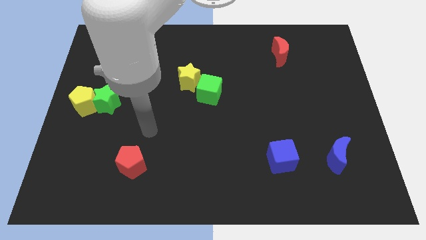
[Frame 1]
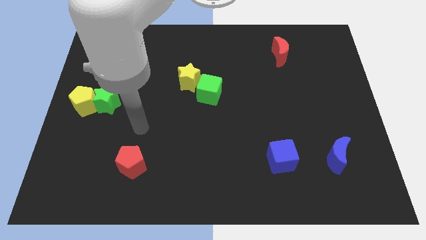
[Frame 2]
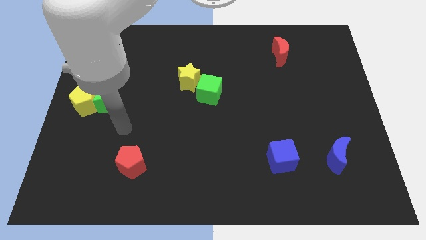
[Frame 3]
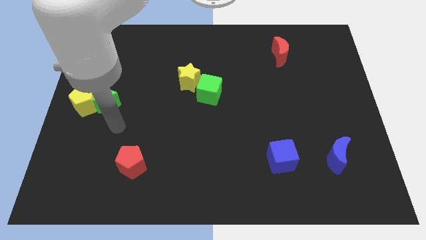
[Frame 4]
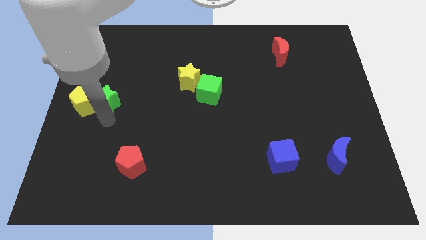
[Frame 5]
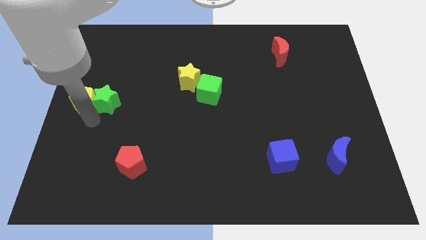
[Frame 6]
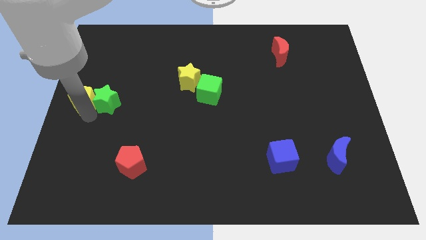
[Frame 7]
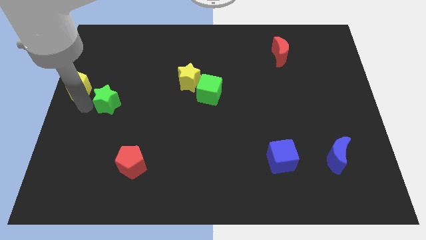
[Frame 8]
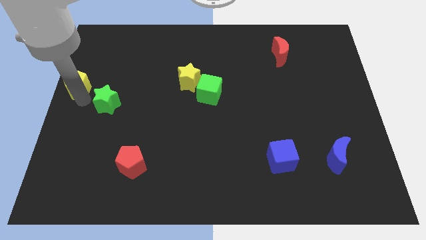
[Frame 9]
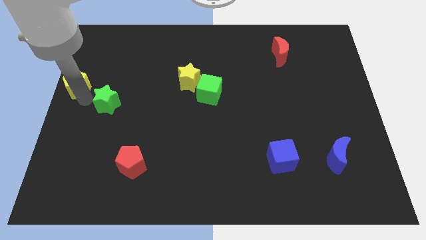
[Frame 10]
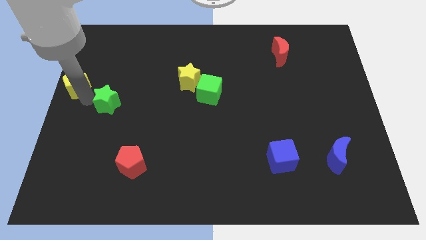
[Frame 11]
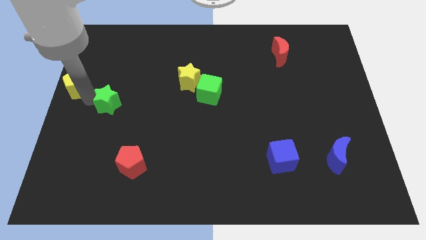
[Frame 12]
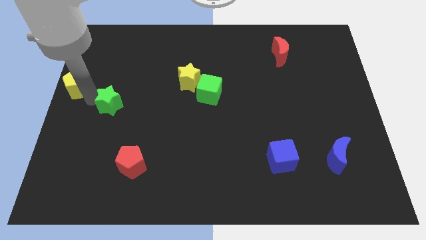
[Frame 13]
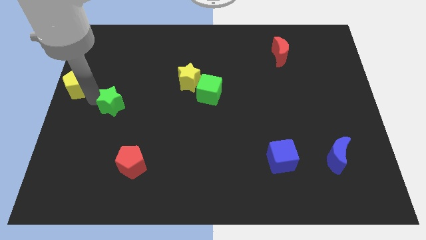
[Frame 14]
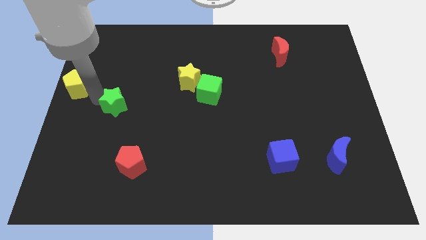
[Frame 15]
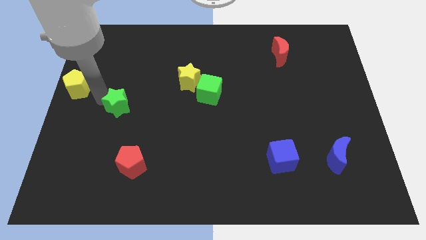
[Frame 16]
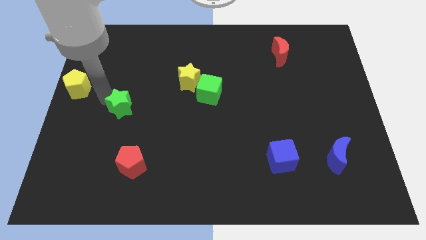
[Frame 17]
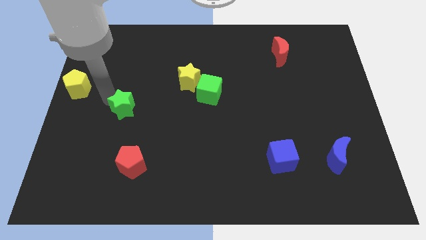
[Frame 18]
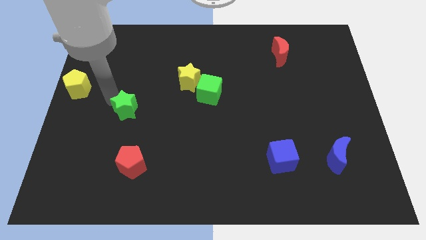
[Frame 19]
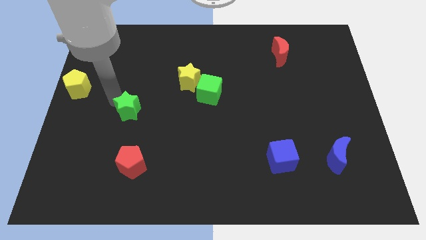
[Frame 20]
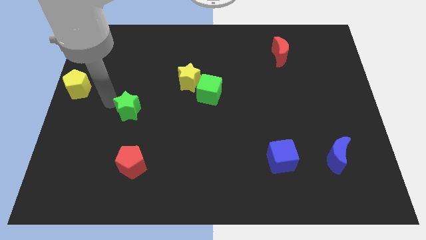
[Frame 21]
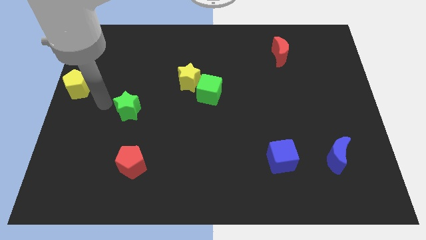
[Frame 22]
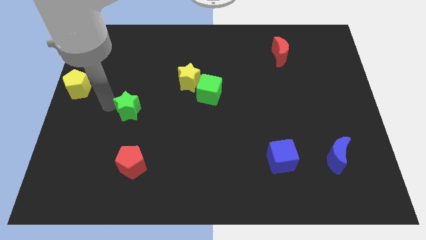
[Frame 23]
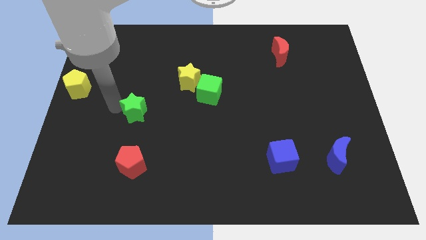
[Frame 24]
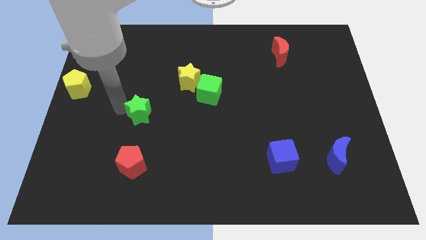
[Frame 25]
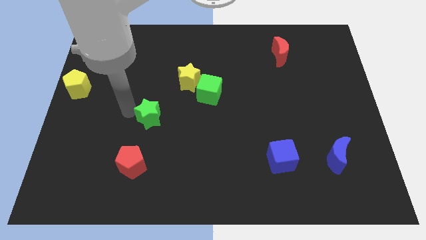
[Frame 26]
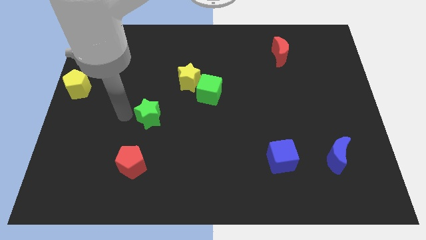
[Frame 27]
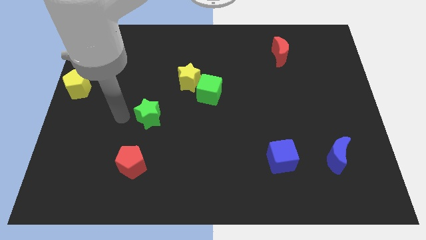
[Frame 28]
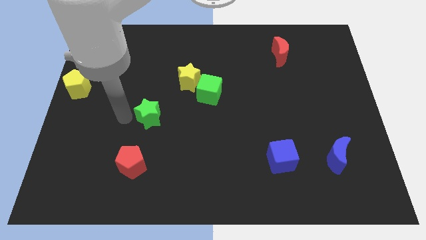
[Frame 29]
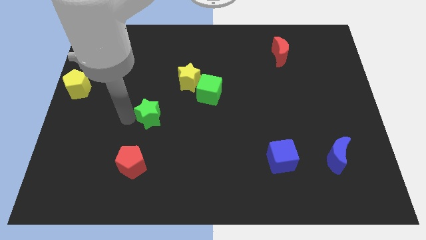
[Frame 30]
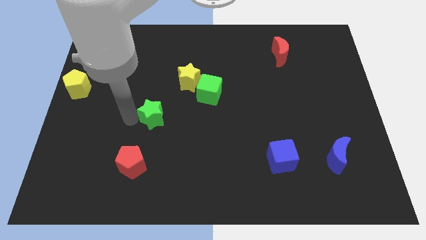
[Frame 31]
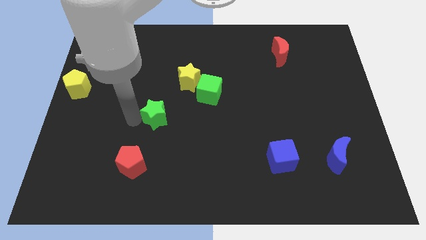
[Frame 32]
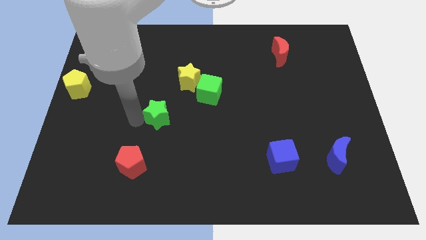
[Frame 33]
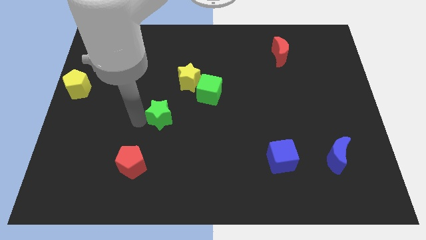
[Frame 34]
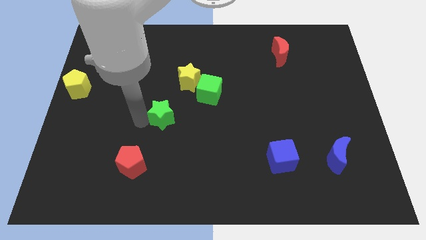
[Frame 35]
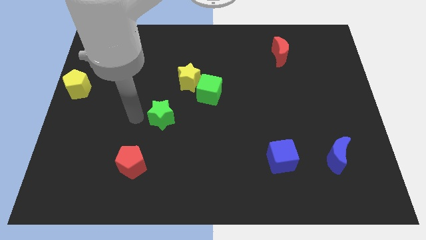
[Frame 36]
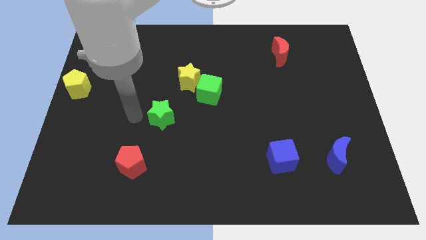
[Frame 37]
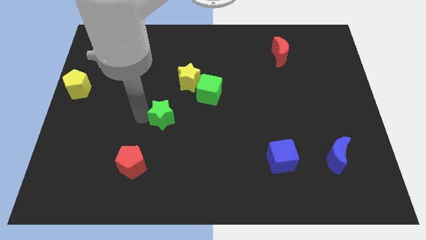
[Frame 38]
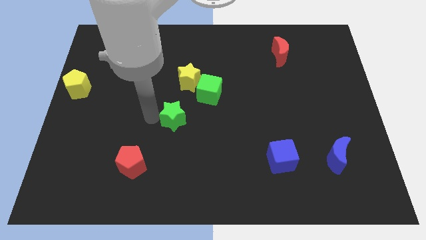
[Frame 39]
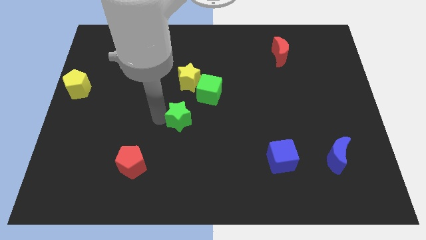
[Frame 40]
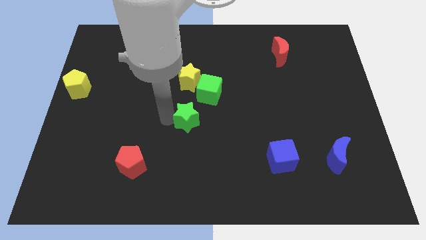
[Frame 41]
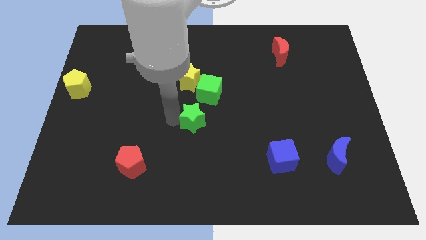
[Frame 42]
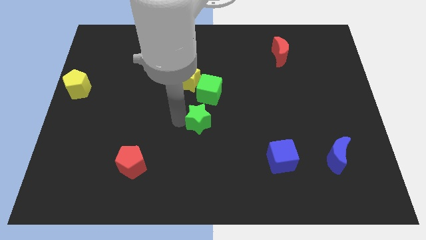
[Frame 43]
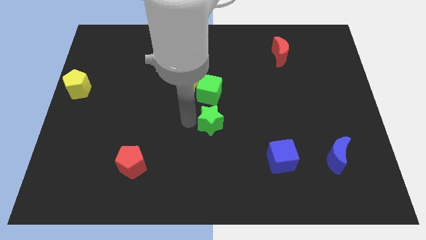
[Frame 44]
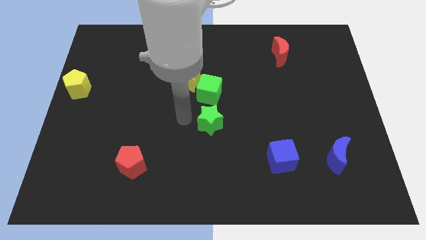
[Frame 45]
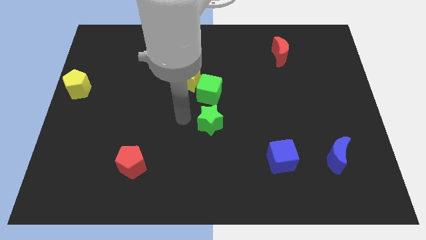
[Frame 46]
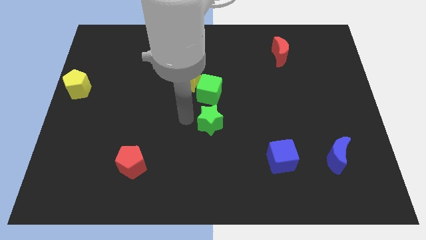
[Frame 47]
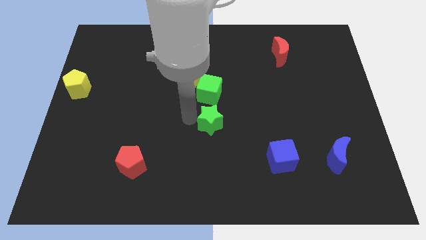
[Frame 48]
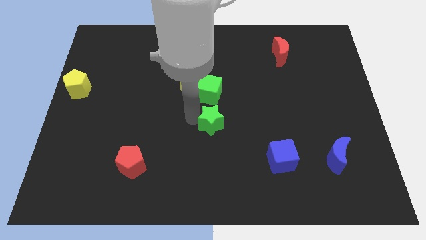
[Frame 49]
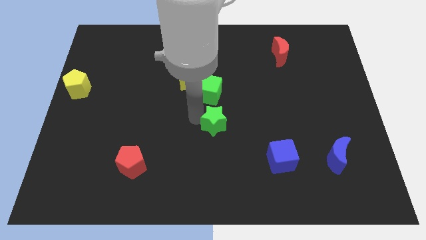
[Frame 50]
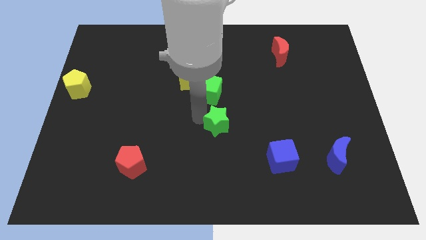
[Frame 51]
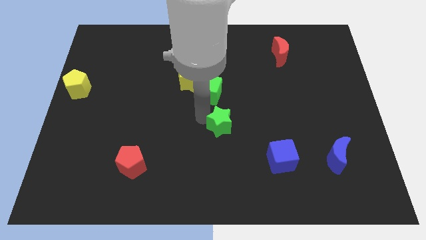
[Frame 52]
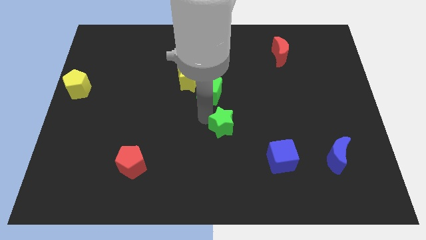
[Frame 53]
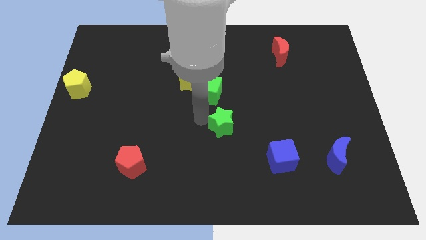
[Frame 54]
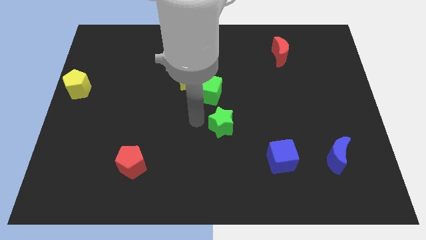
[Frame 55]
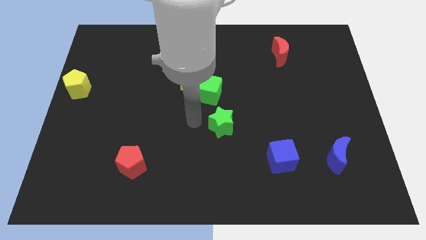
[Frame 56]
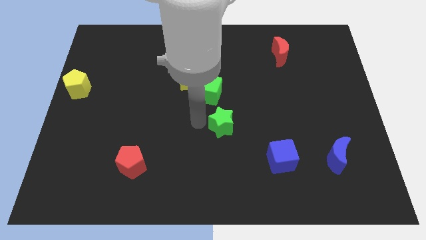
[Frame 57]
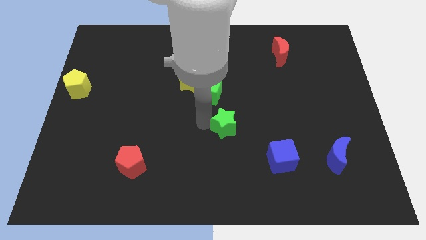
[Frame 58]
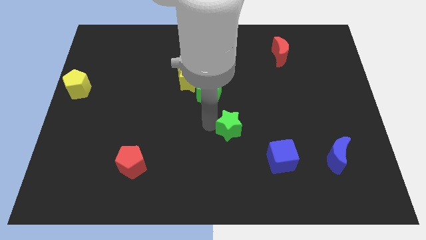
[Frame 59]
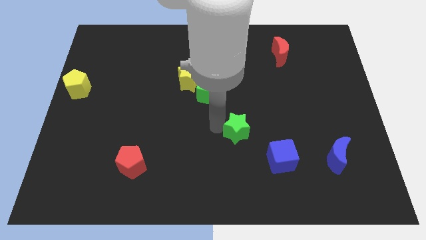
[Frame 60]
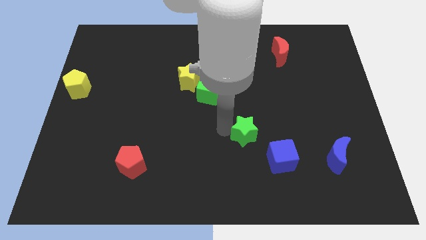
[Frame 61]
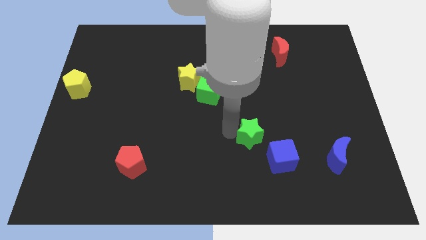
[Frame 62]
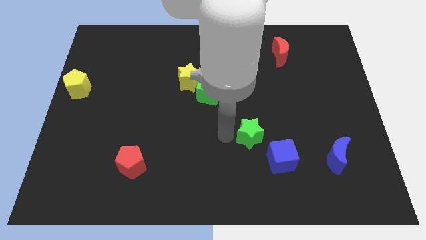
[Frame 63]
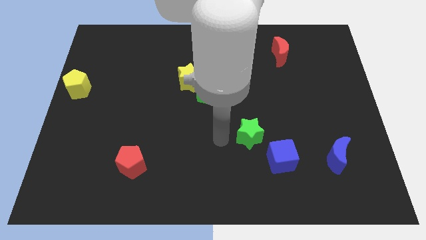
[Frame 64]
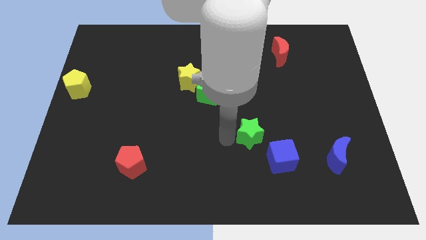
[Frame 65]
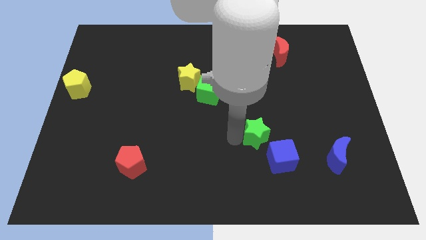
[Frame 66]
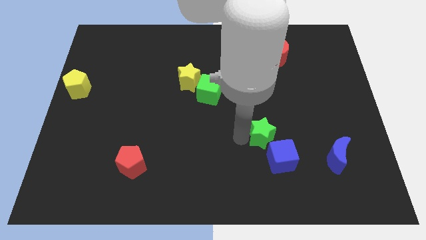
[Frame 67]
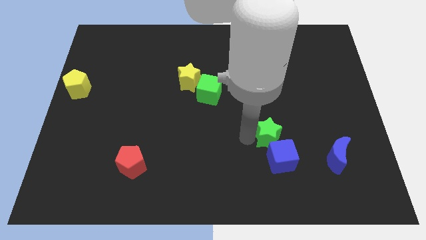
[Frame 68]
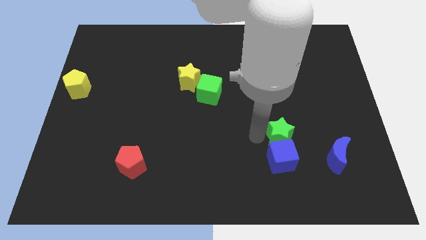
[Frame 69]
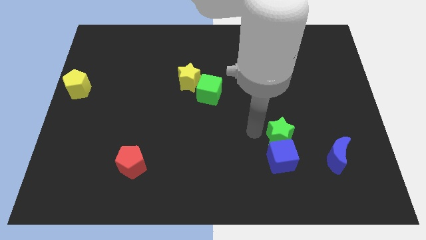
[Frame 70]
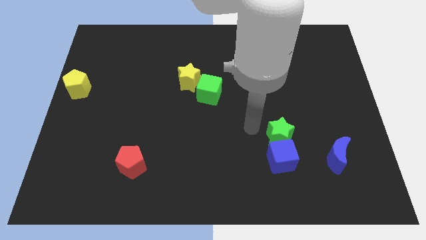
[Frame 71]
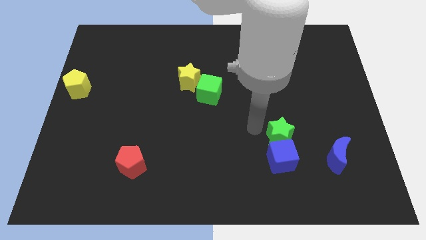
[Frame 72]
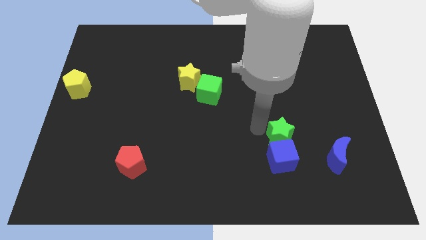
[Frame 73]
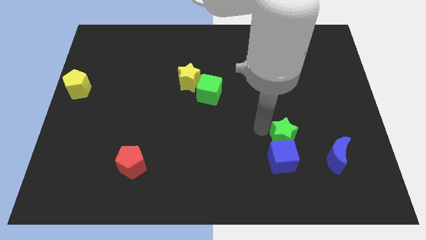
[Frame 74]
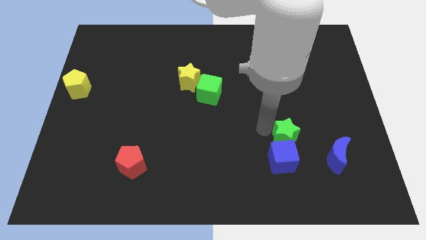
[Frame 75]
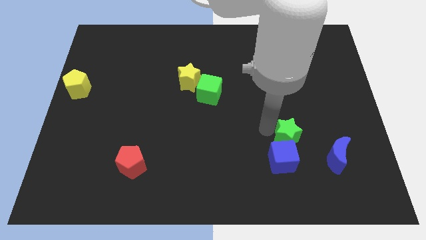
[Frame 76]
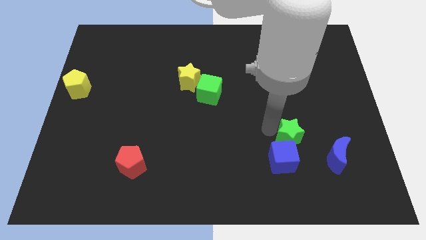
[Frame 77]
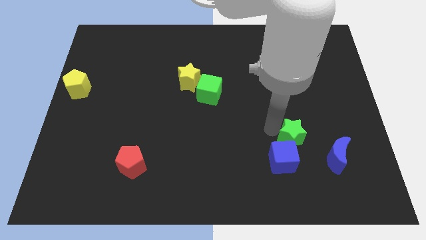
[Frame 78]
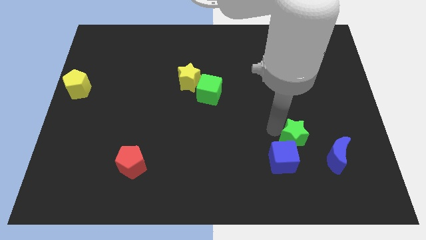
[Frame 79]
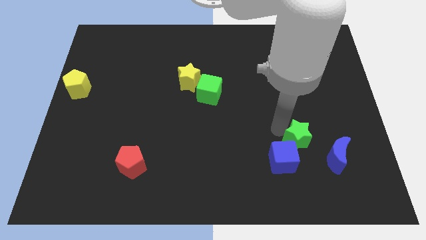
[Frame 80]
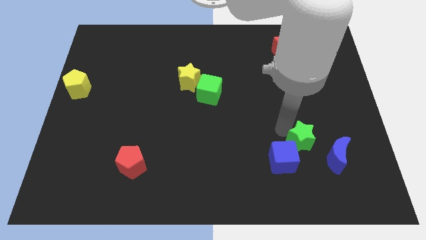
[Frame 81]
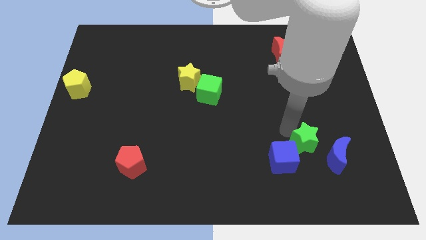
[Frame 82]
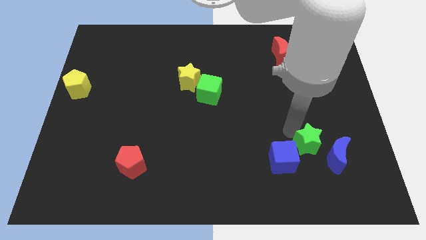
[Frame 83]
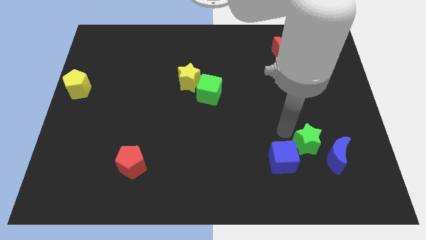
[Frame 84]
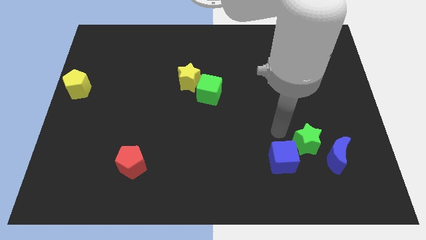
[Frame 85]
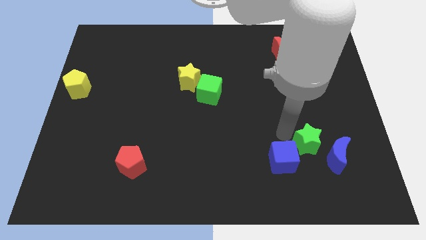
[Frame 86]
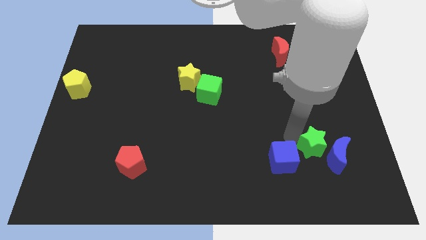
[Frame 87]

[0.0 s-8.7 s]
move the green star towards the blue moon
